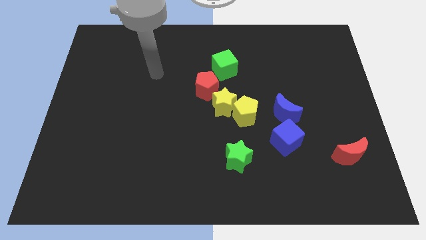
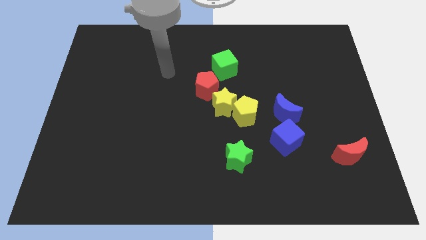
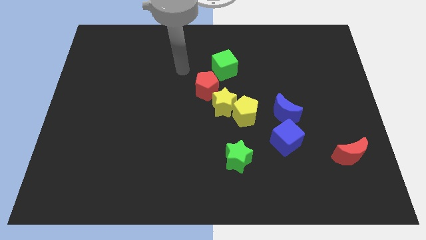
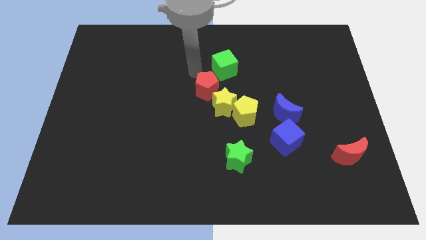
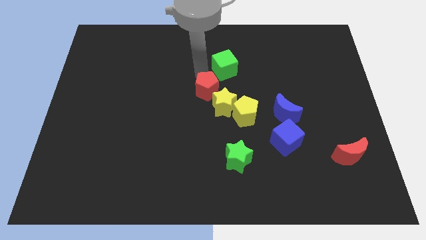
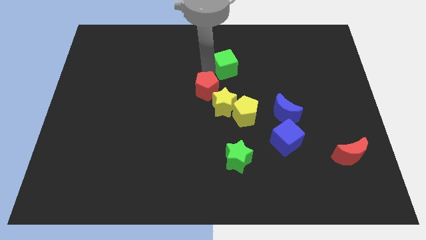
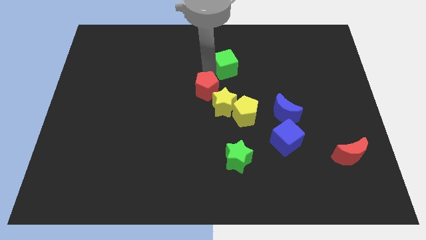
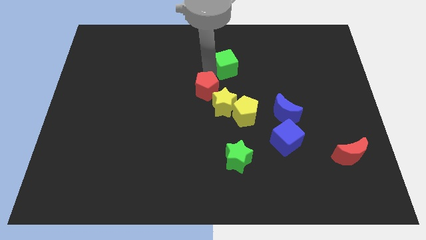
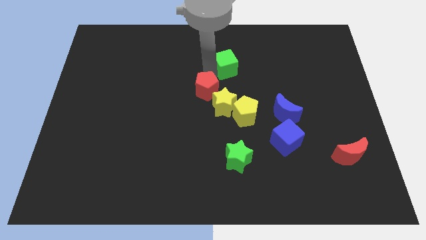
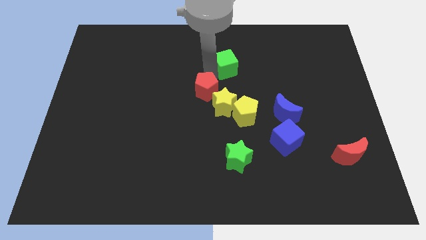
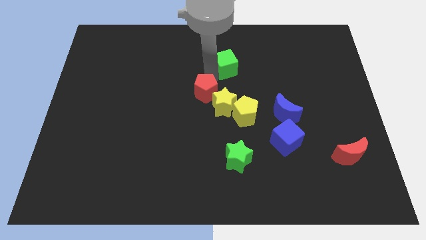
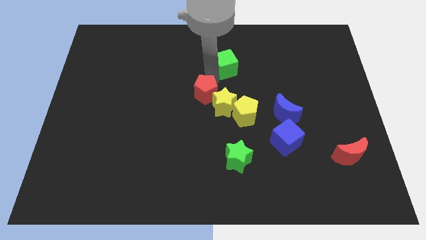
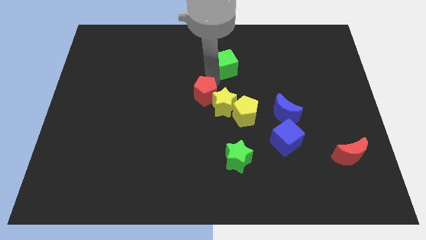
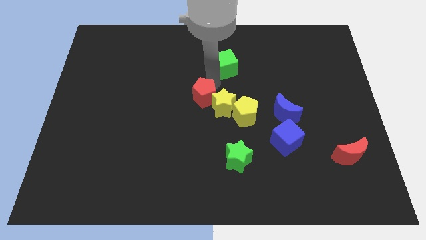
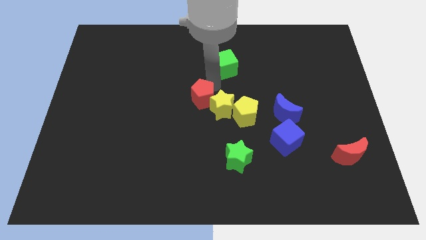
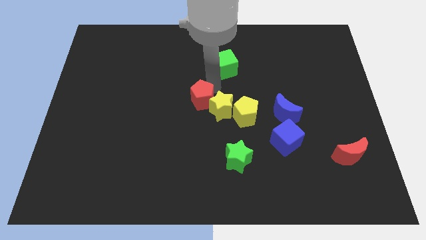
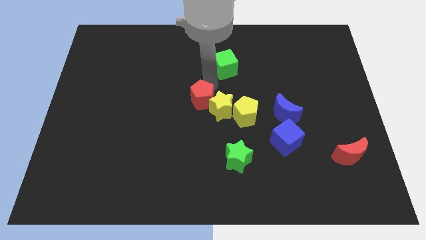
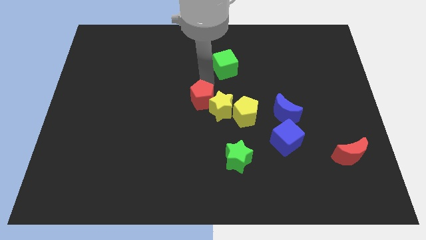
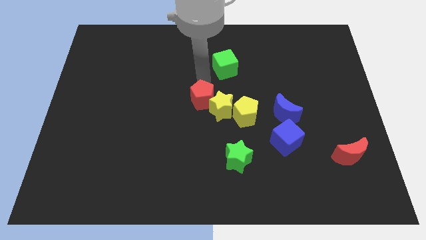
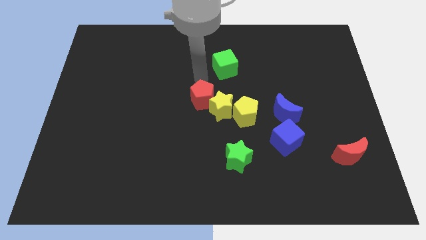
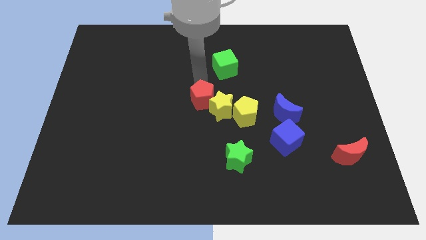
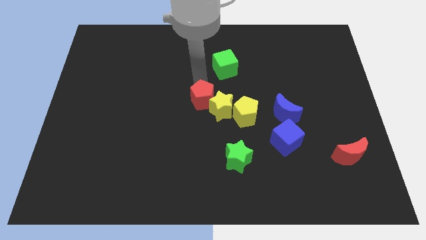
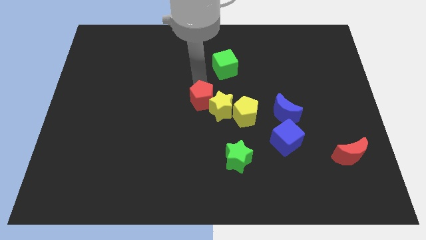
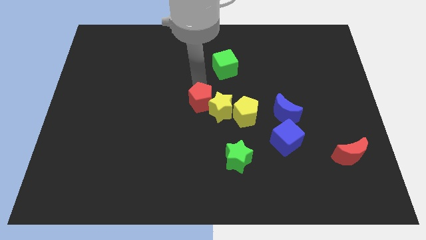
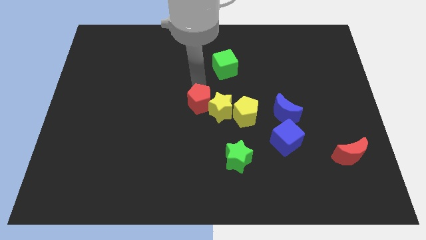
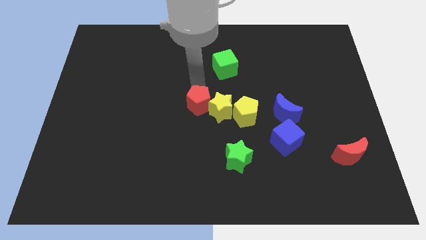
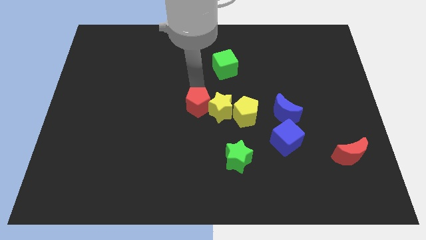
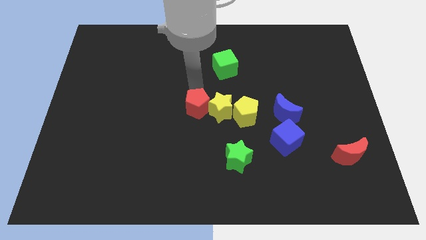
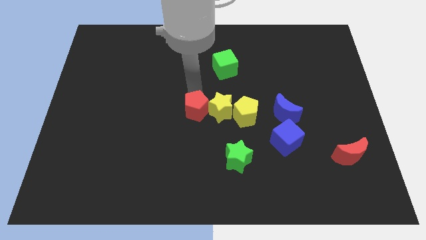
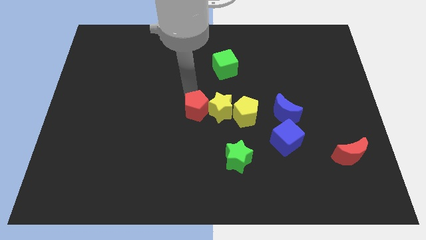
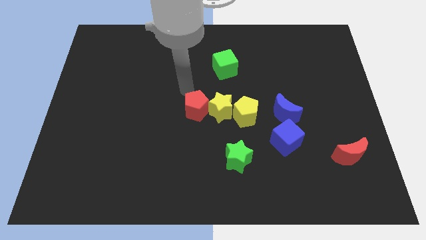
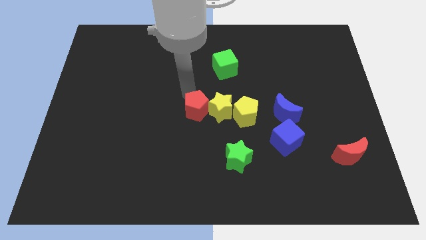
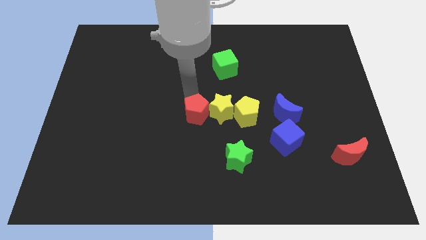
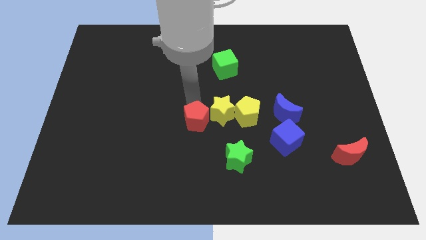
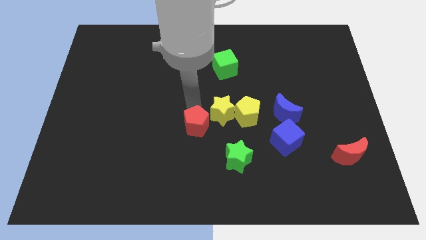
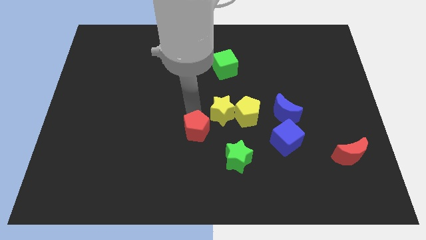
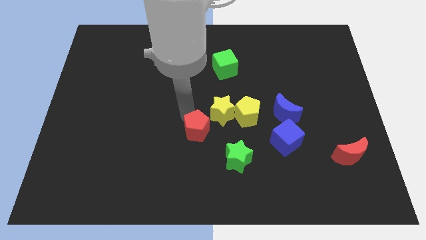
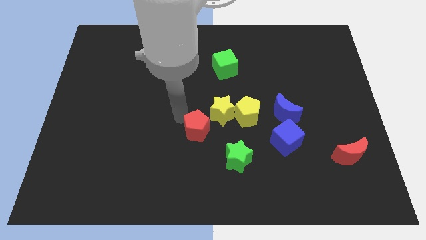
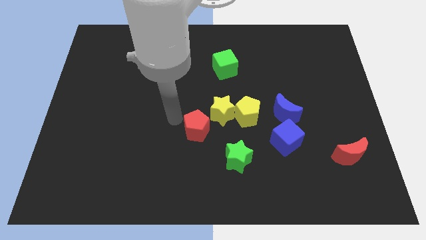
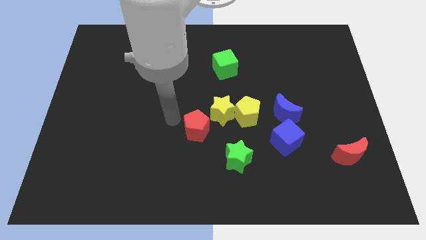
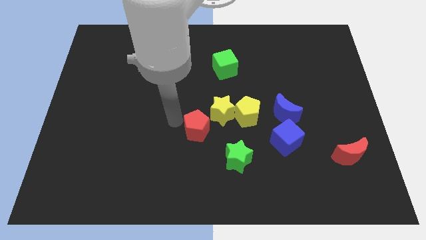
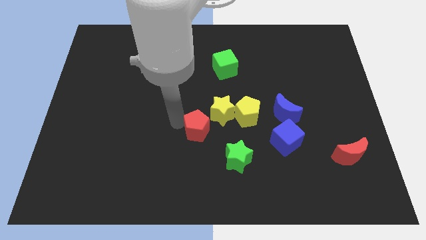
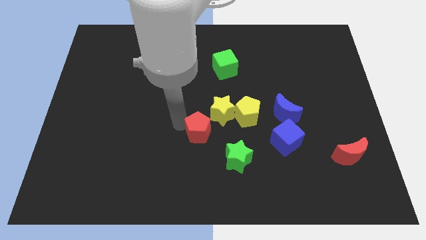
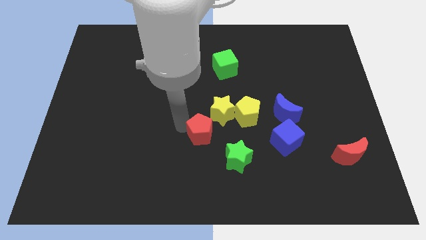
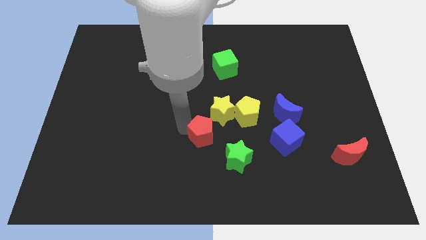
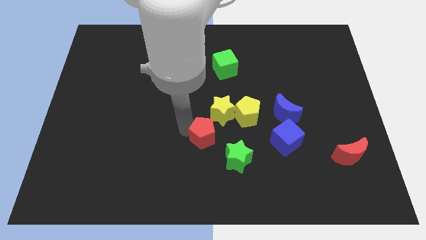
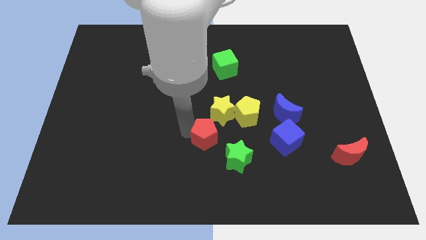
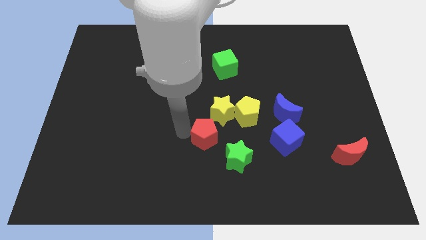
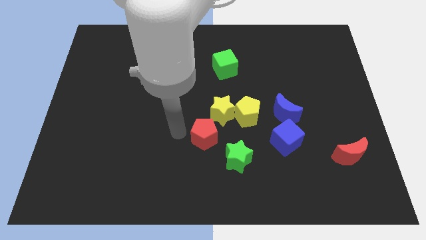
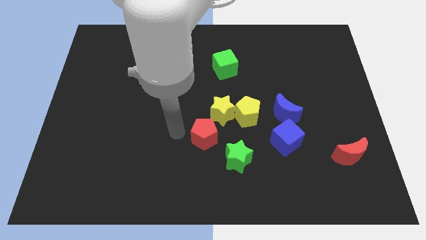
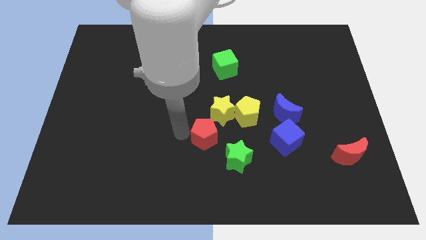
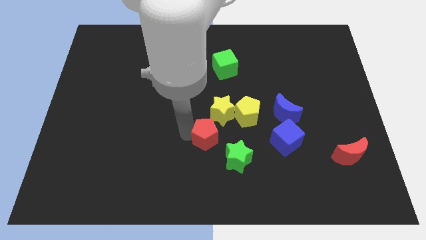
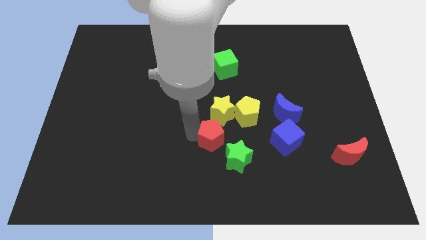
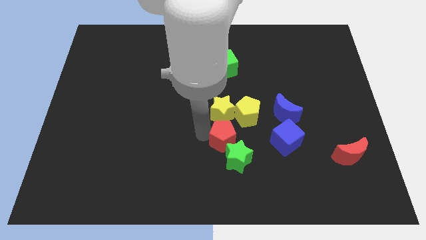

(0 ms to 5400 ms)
slide the red pentagon towards the green star

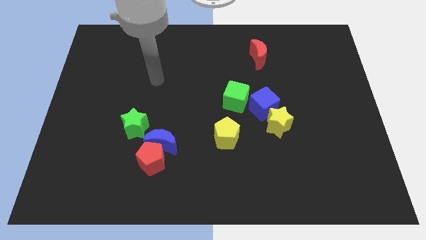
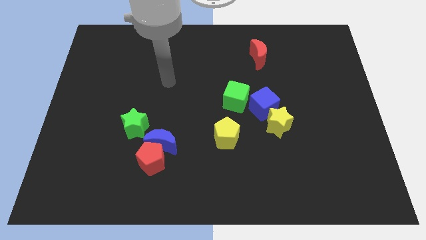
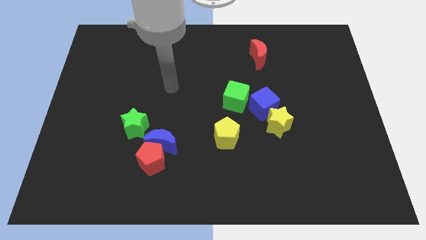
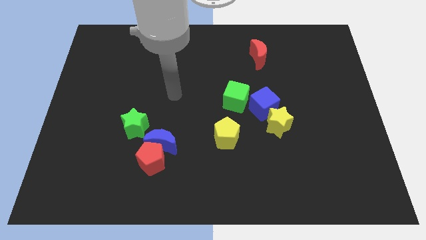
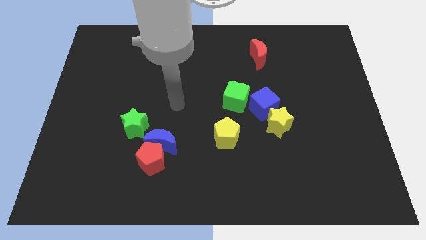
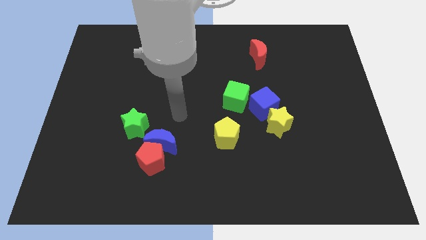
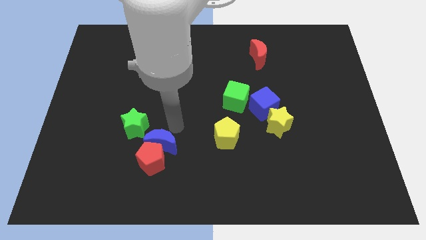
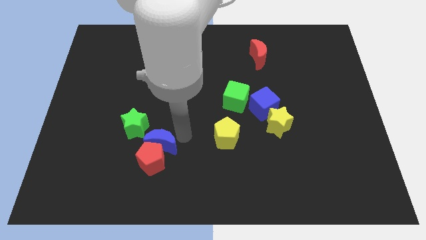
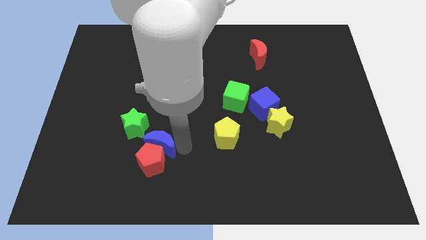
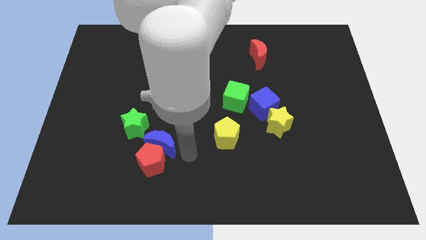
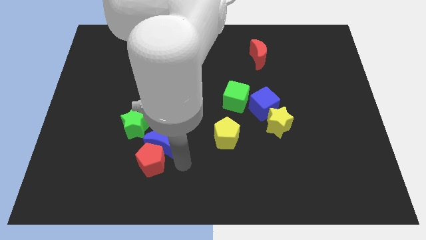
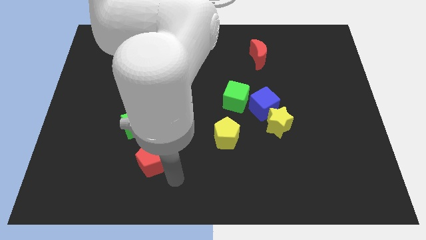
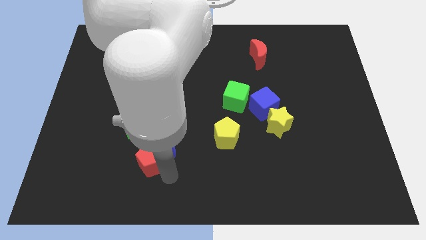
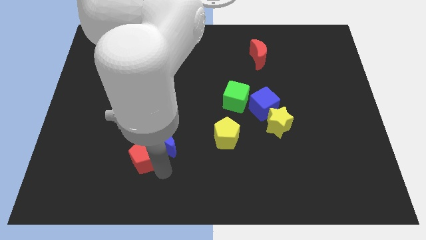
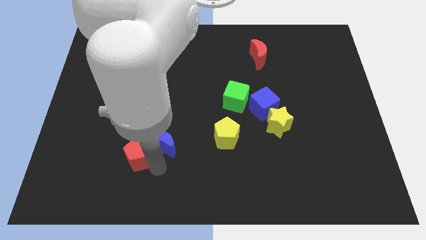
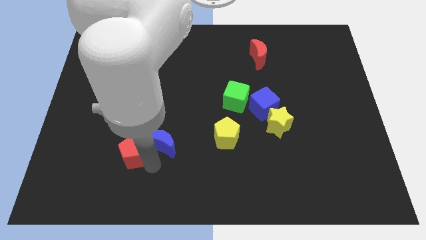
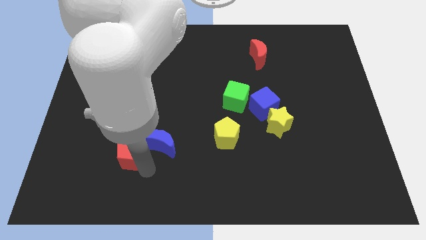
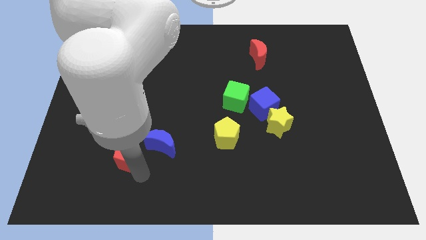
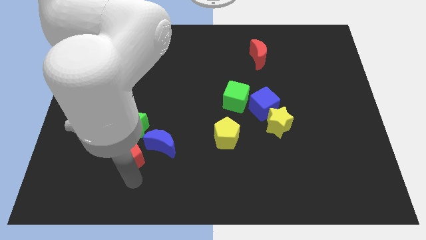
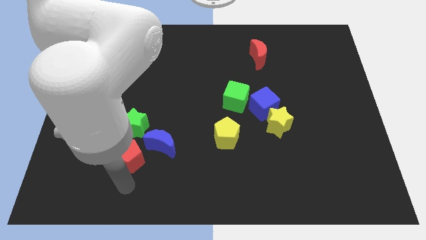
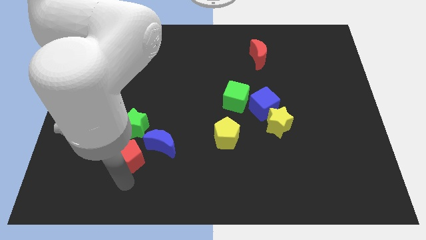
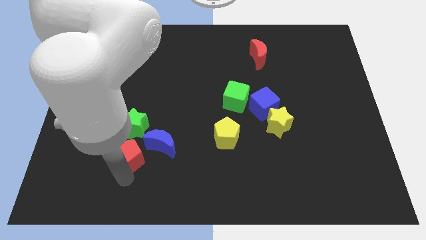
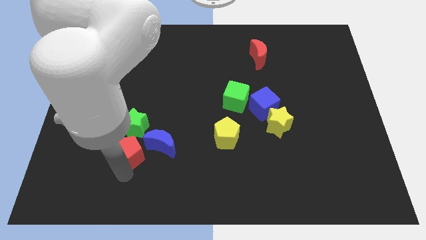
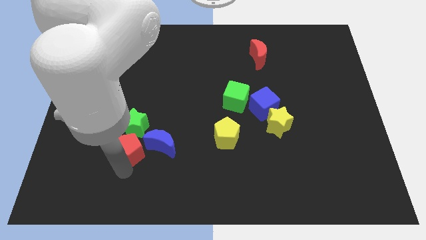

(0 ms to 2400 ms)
move the red pentagon to the green star
